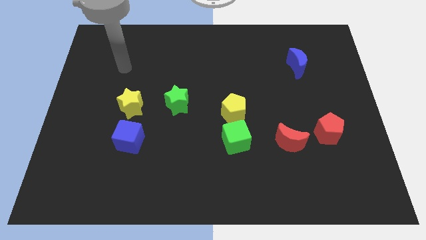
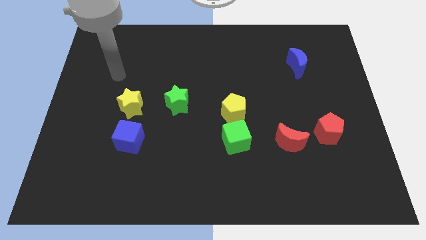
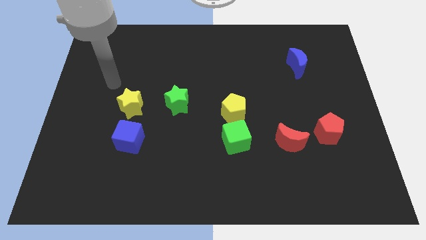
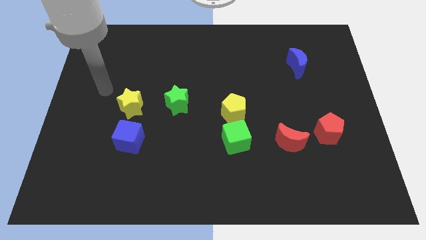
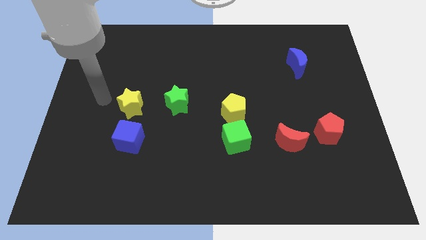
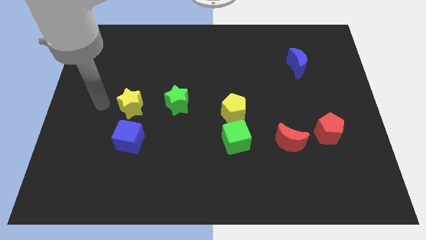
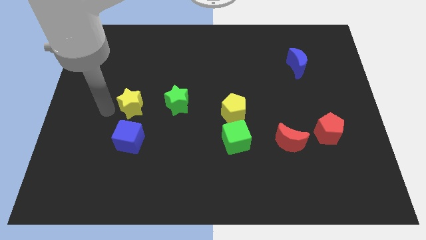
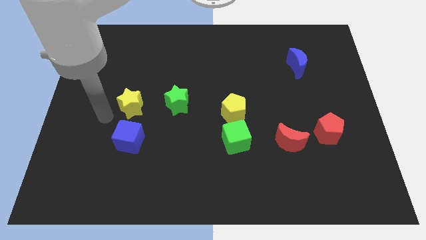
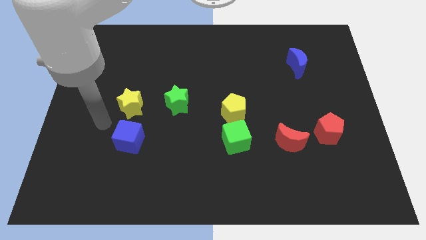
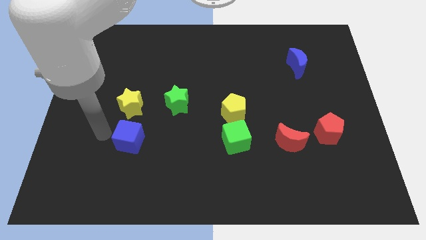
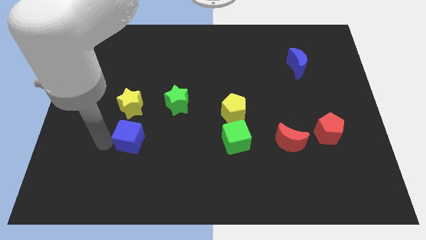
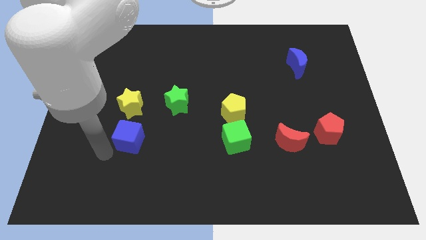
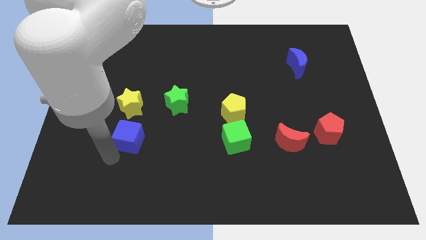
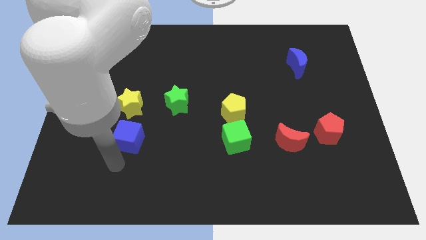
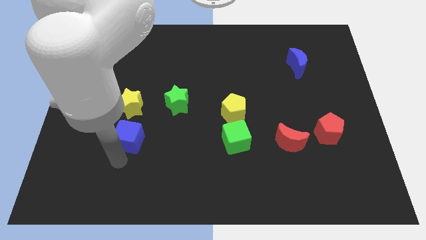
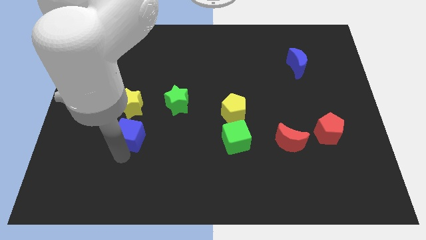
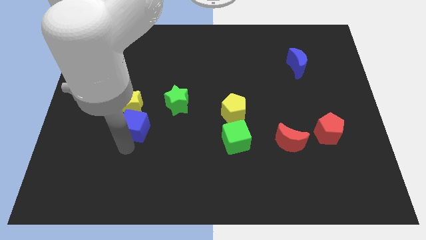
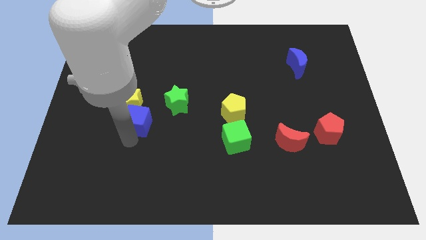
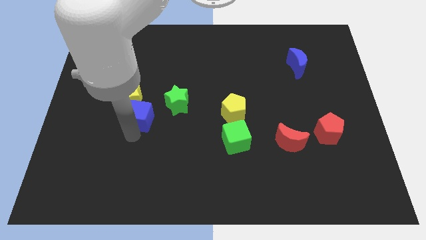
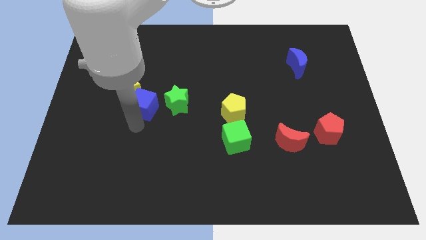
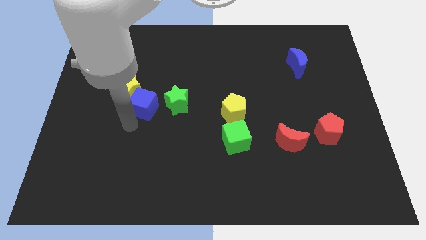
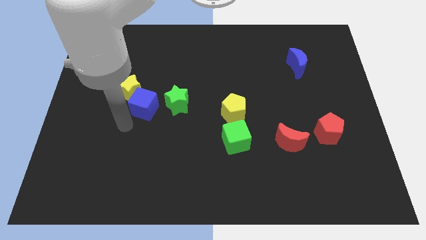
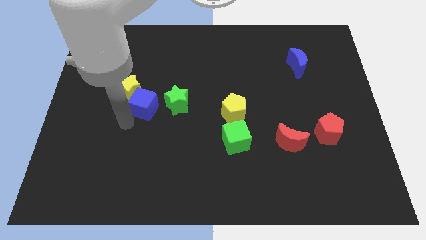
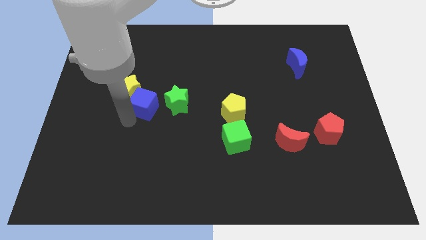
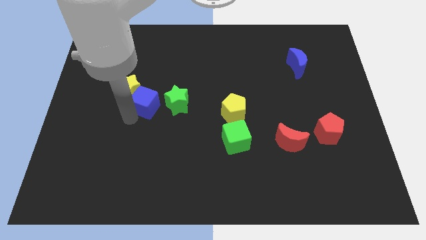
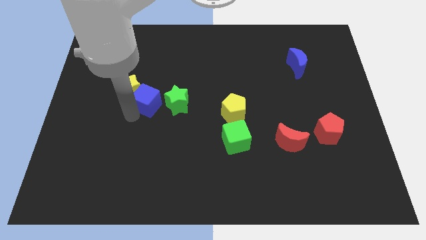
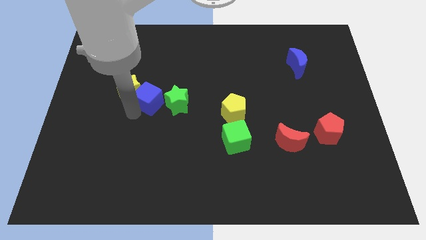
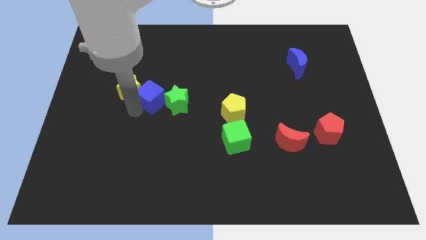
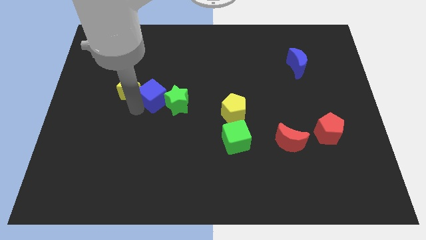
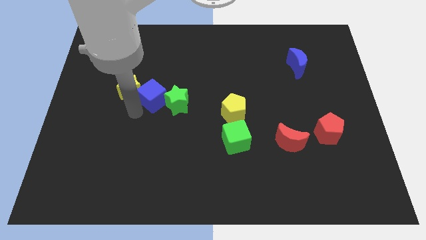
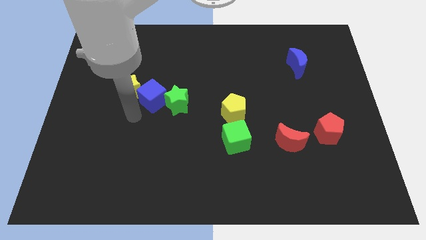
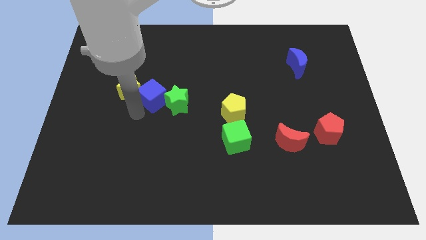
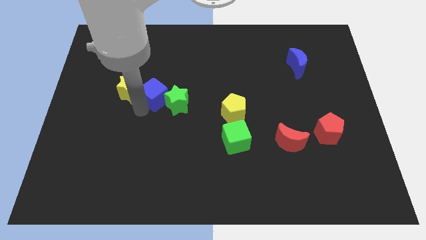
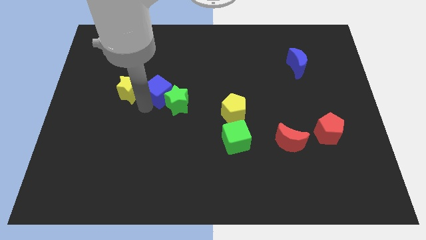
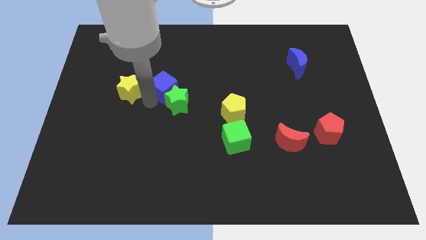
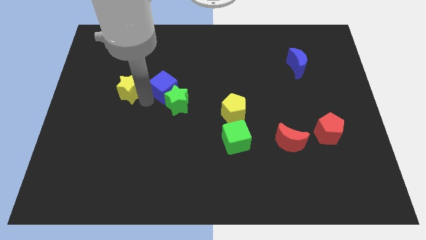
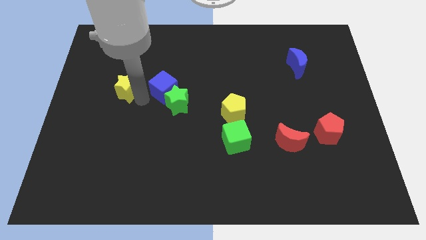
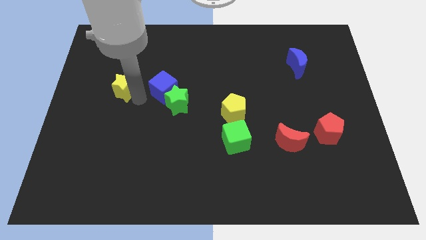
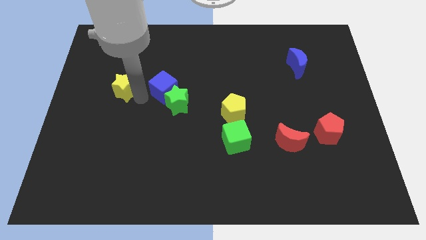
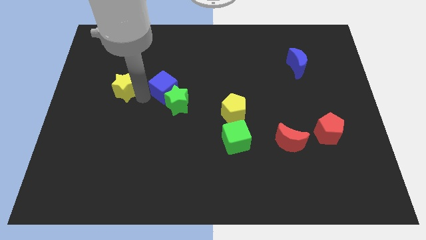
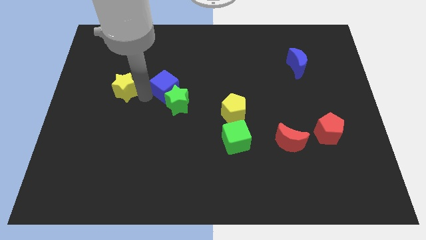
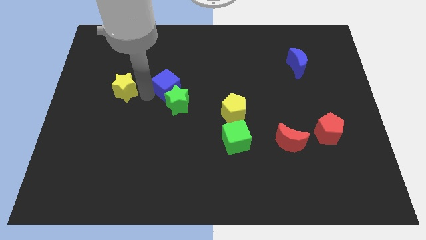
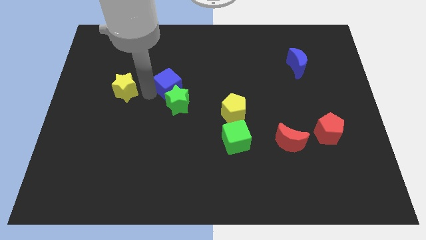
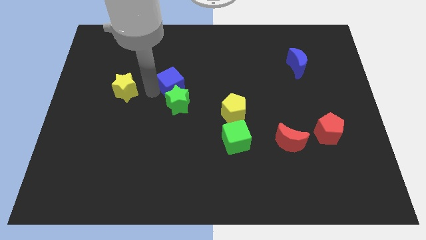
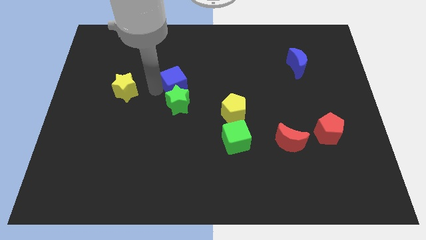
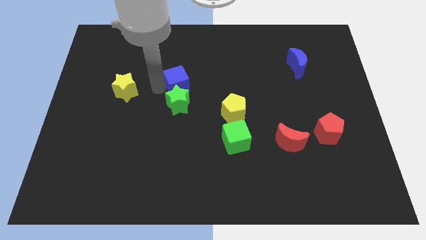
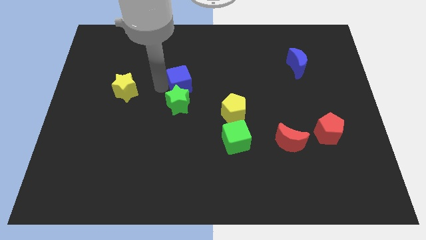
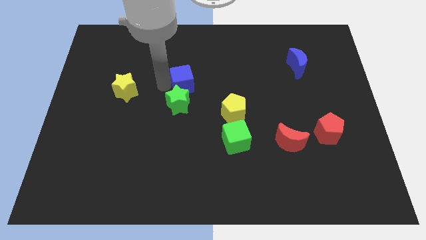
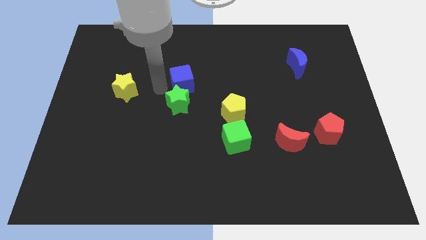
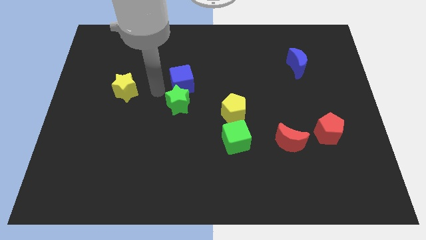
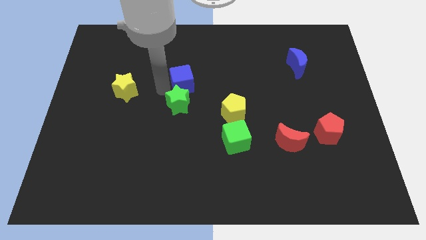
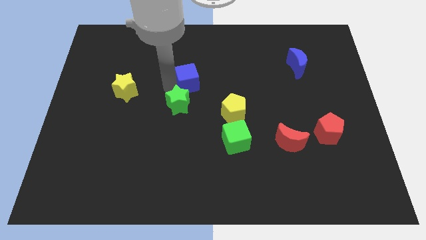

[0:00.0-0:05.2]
move the blue cube diagonally up and to the right

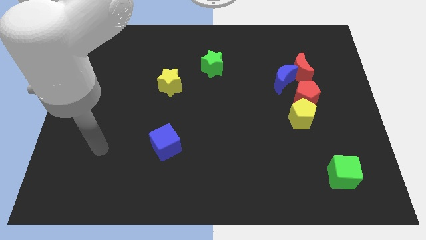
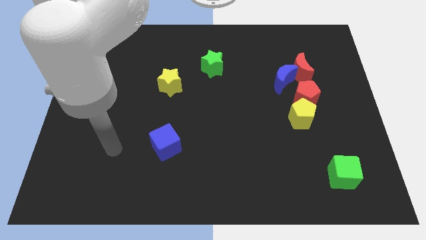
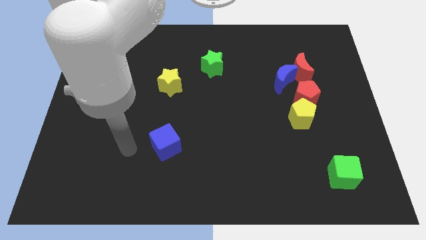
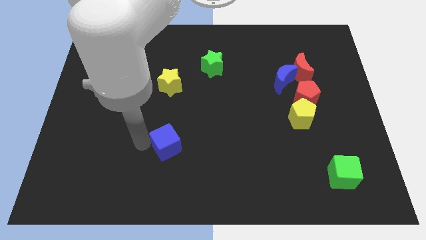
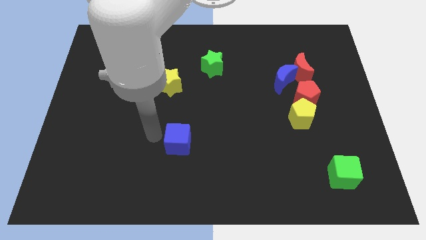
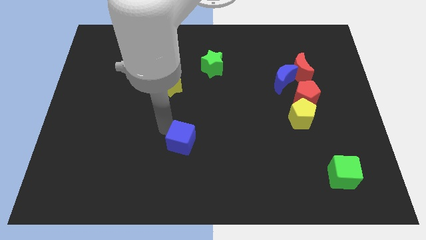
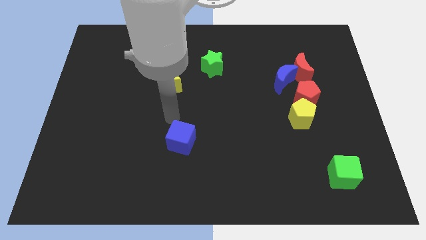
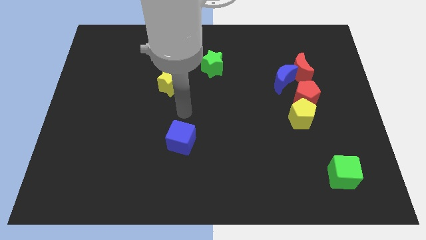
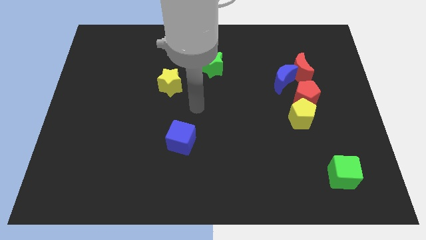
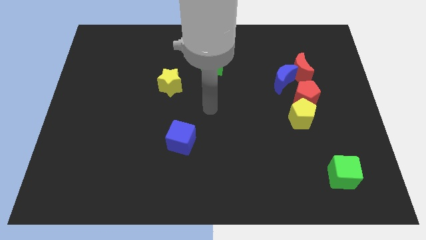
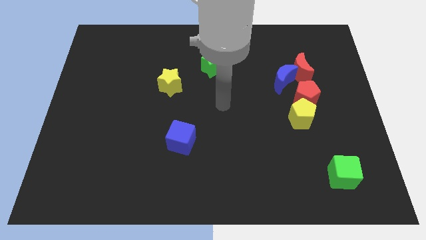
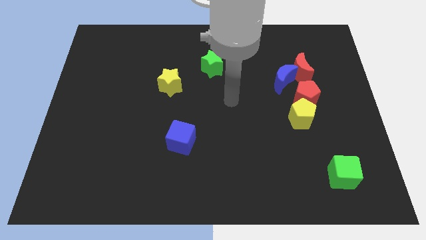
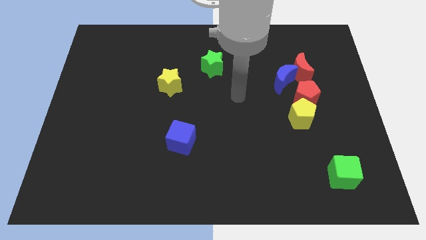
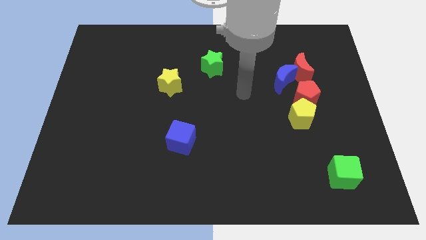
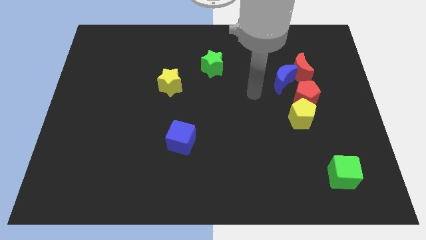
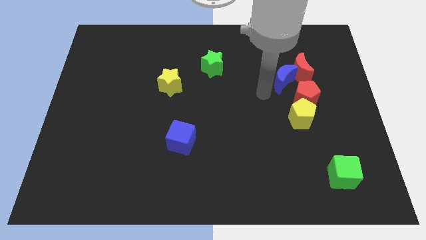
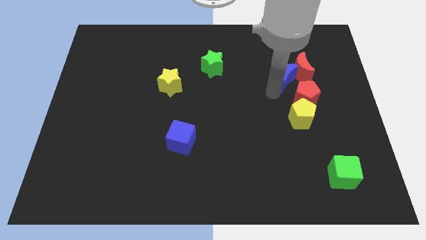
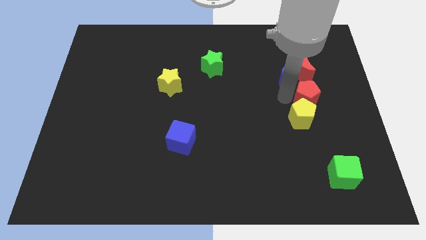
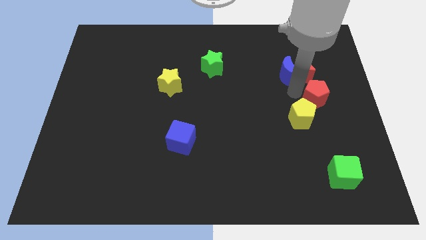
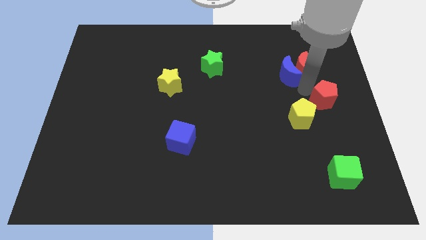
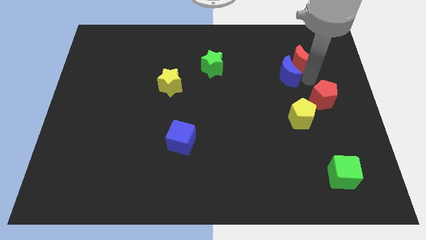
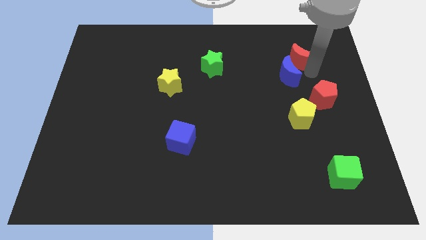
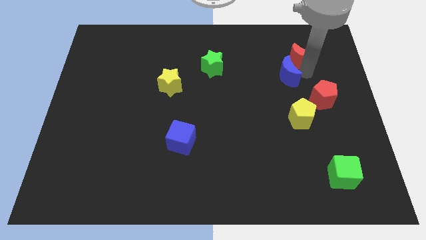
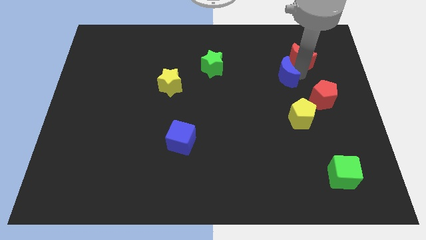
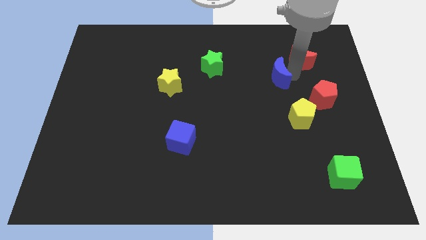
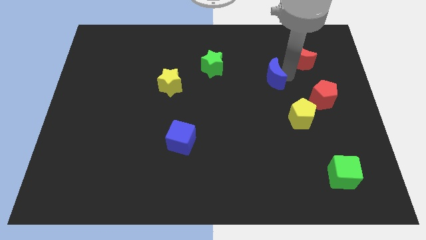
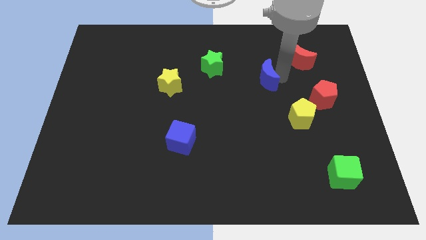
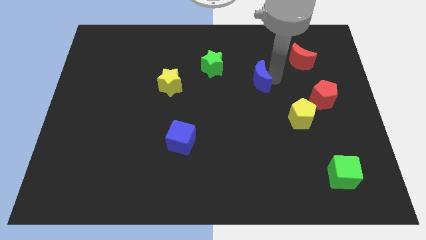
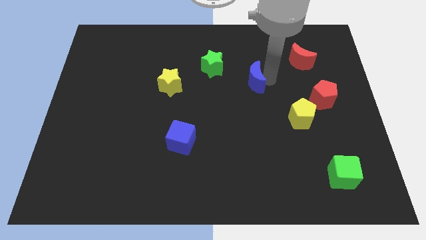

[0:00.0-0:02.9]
push the blue moon left a little bit
